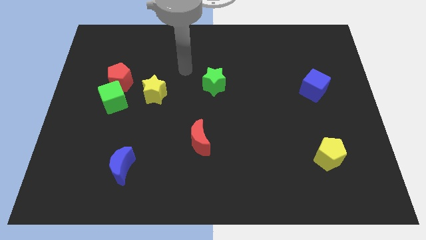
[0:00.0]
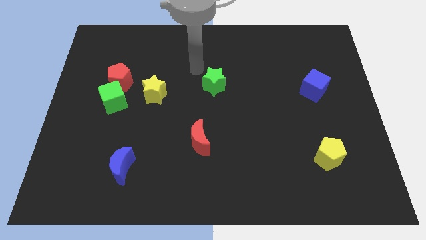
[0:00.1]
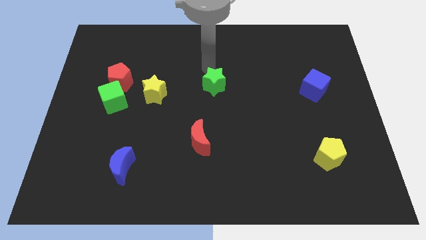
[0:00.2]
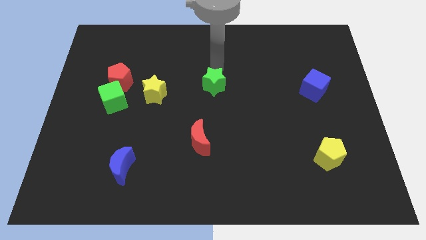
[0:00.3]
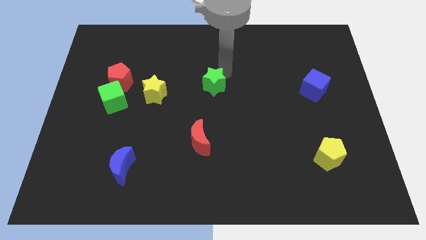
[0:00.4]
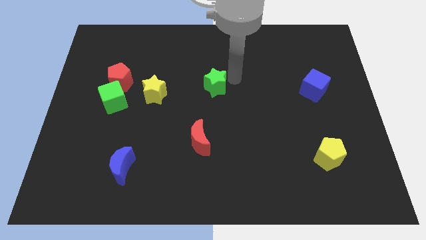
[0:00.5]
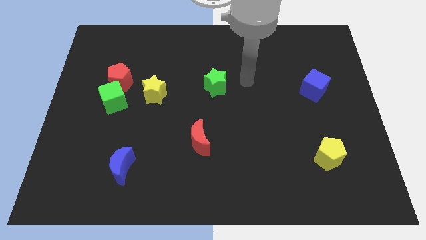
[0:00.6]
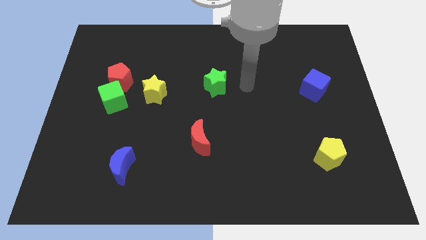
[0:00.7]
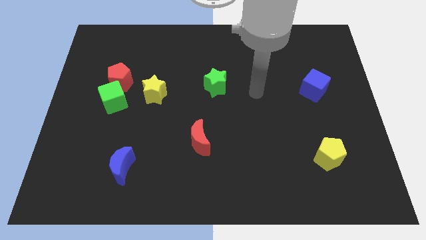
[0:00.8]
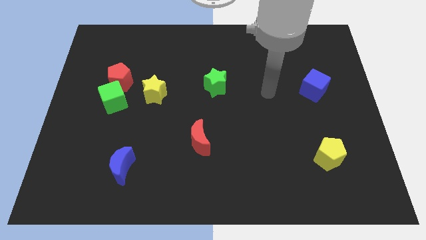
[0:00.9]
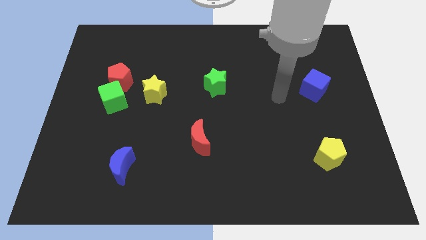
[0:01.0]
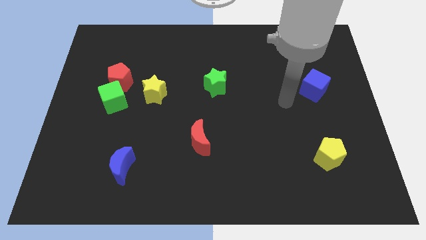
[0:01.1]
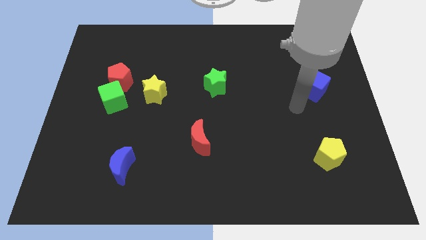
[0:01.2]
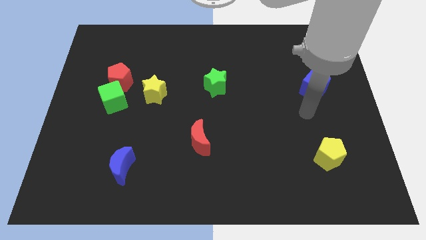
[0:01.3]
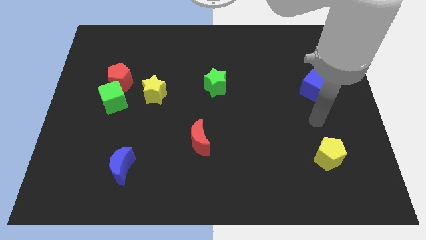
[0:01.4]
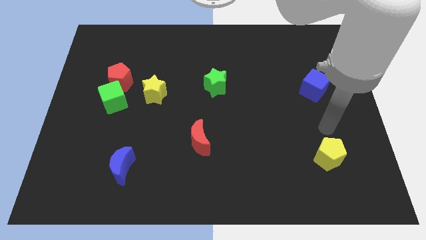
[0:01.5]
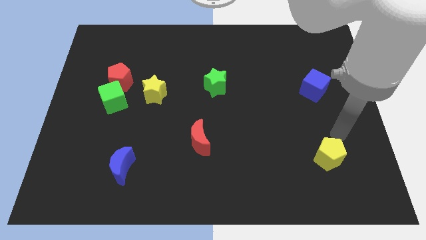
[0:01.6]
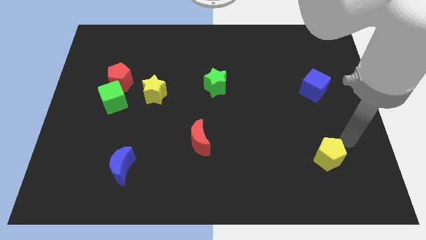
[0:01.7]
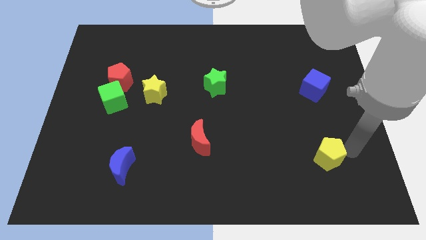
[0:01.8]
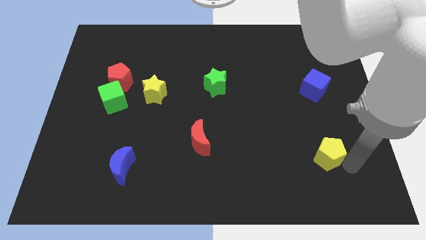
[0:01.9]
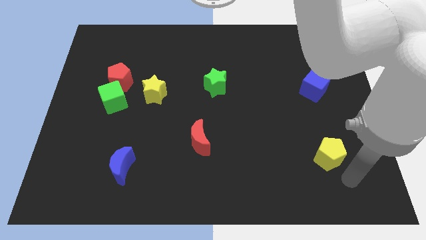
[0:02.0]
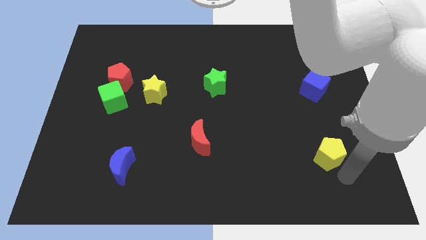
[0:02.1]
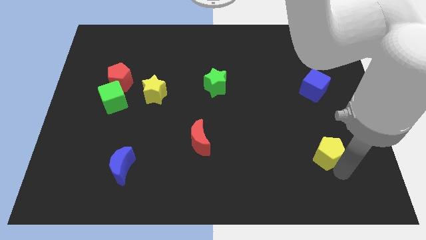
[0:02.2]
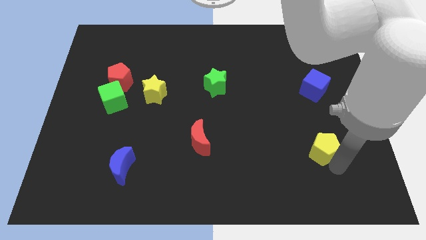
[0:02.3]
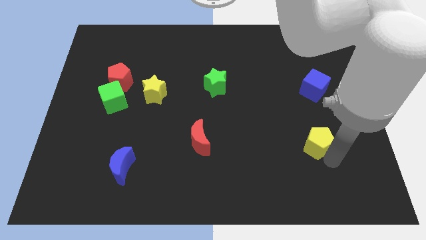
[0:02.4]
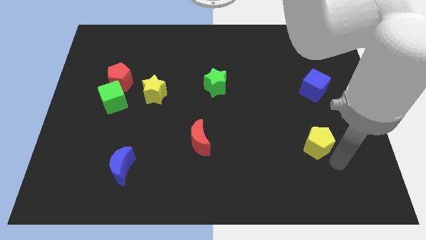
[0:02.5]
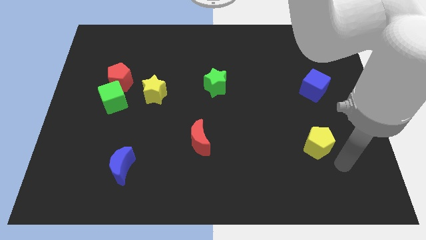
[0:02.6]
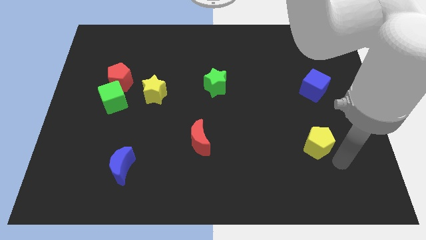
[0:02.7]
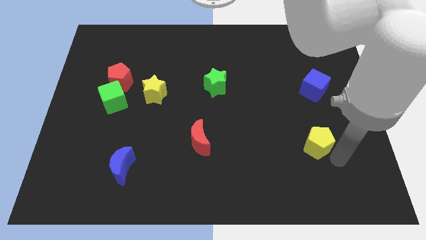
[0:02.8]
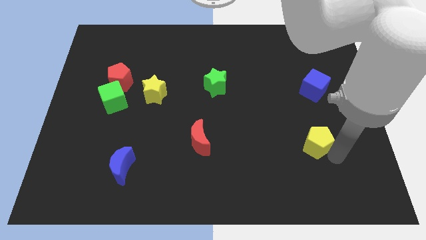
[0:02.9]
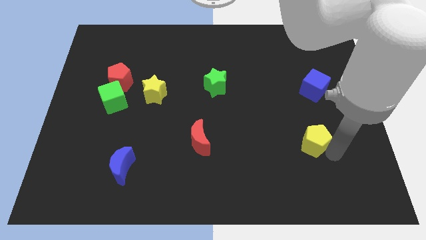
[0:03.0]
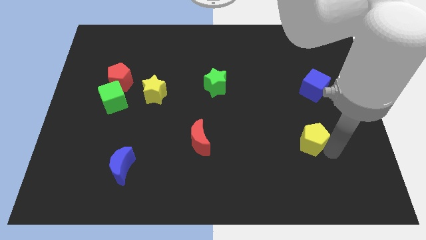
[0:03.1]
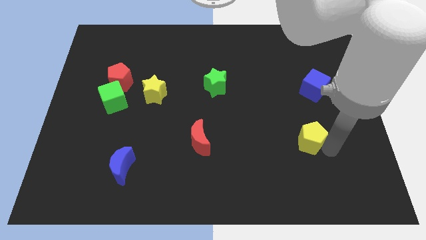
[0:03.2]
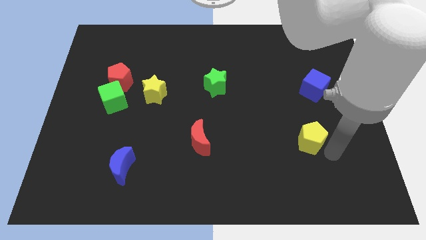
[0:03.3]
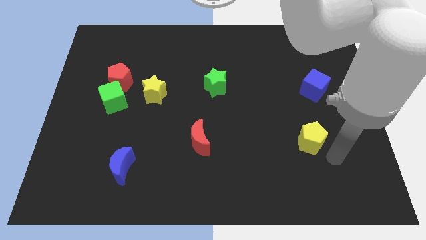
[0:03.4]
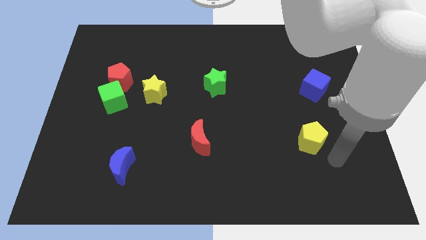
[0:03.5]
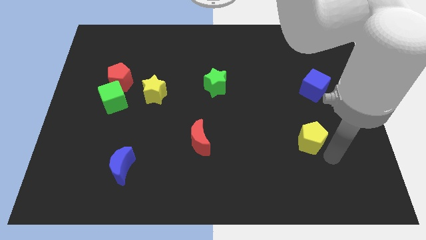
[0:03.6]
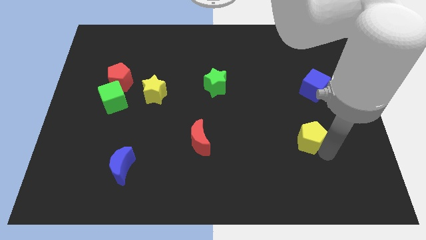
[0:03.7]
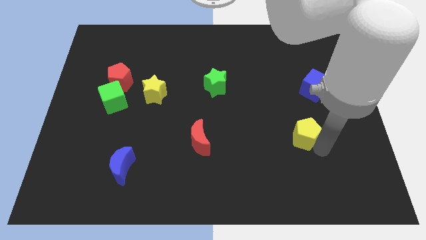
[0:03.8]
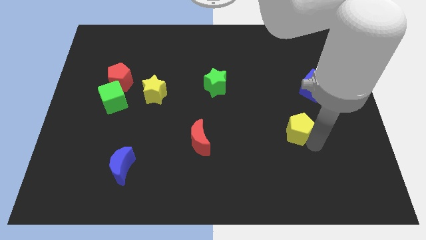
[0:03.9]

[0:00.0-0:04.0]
move the yellow pentagon up and to the left somewhat

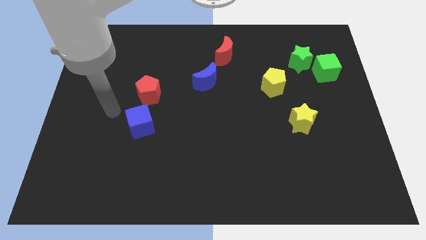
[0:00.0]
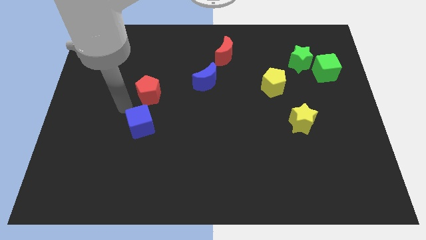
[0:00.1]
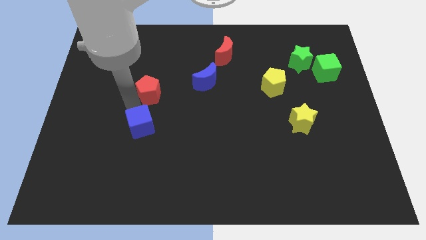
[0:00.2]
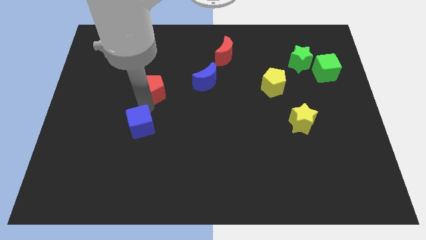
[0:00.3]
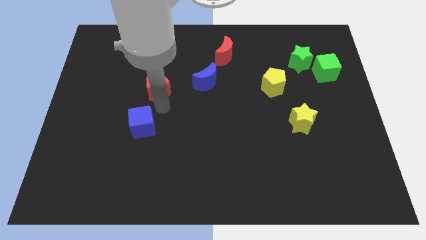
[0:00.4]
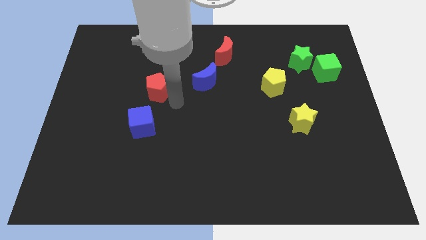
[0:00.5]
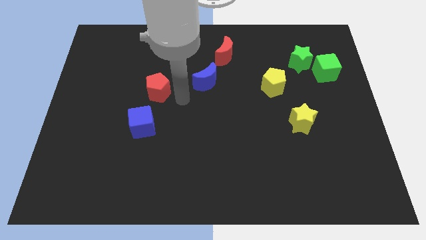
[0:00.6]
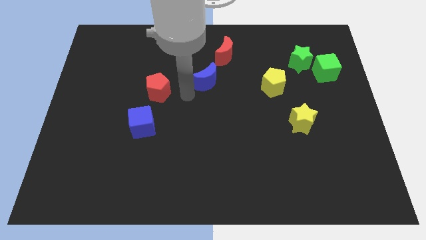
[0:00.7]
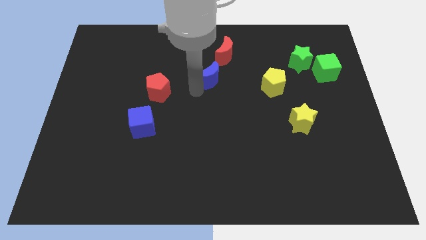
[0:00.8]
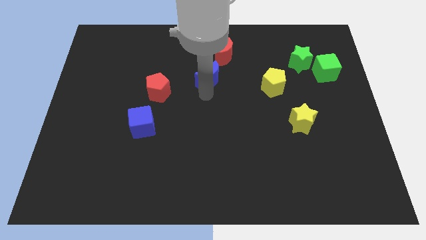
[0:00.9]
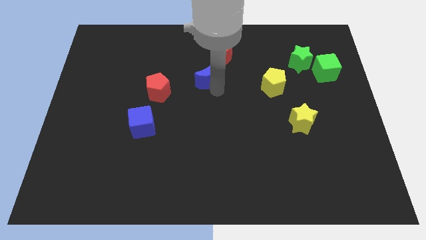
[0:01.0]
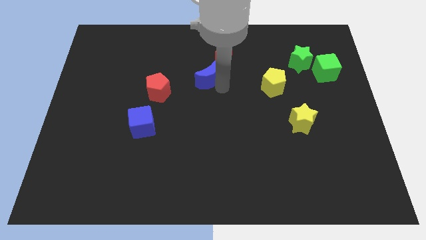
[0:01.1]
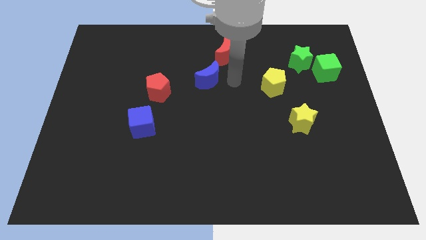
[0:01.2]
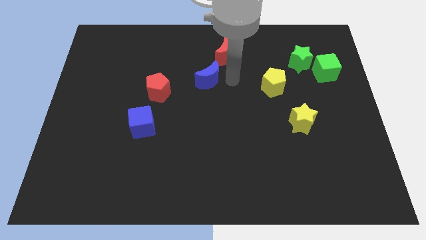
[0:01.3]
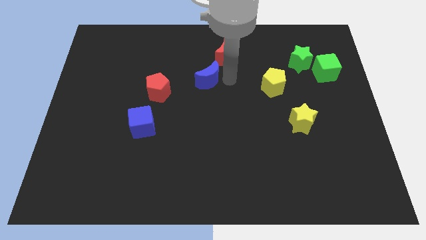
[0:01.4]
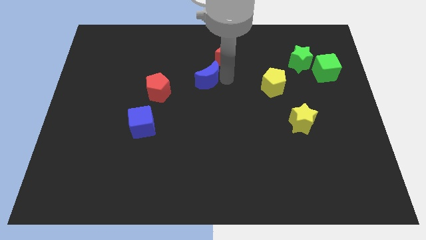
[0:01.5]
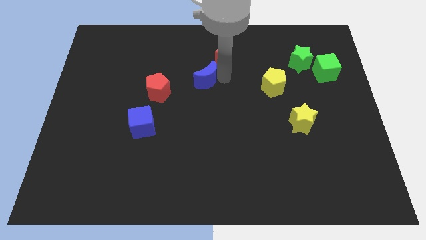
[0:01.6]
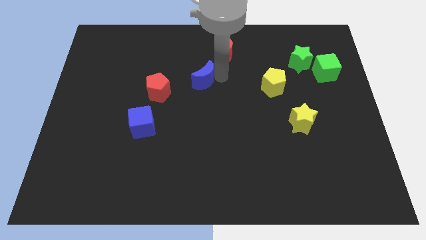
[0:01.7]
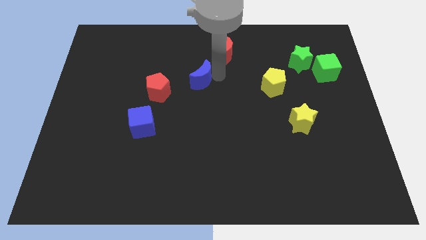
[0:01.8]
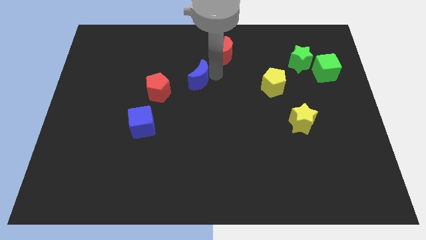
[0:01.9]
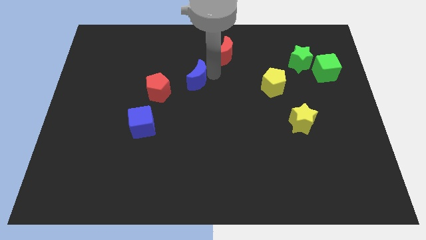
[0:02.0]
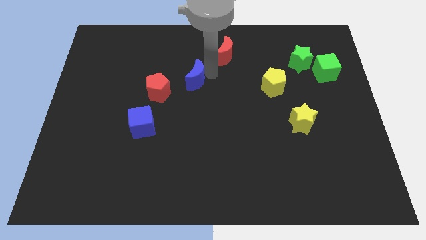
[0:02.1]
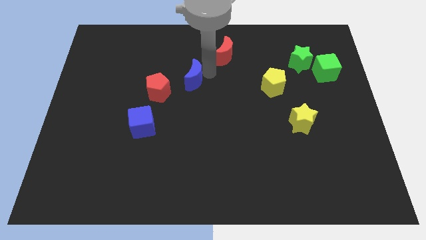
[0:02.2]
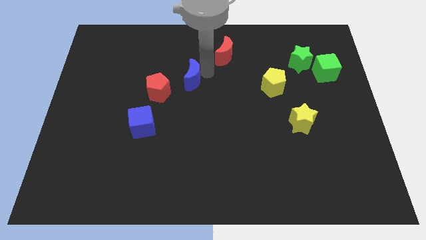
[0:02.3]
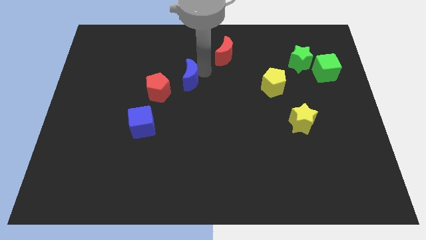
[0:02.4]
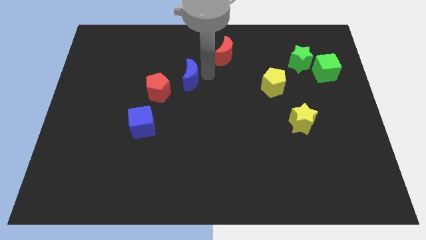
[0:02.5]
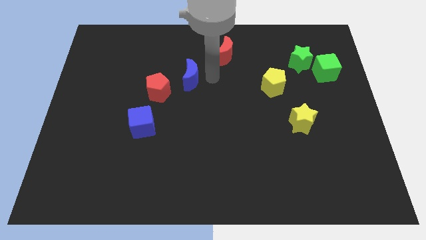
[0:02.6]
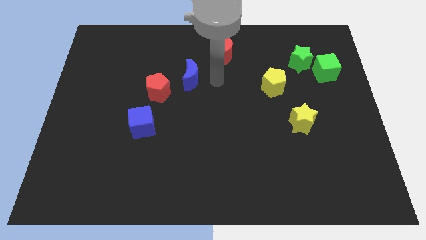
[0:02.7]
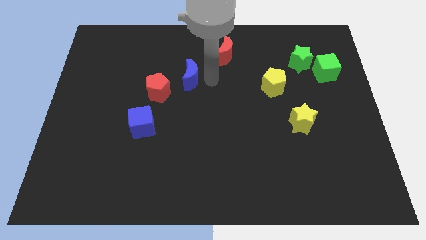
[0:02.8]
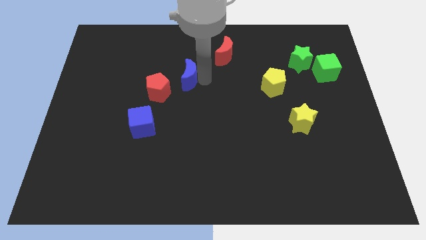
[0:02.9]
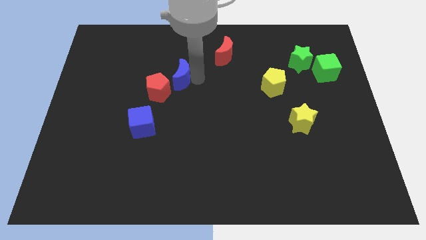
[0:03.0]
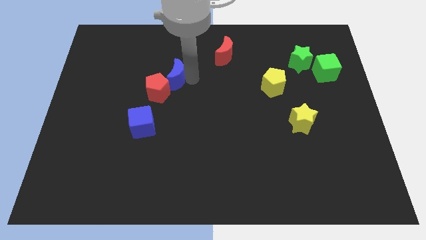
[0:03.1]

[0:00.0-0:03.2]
move the blue moon to the left somewhat

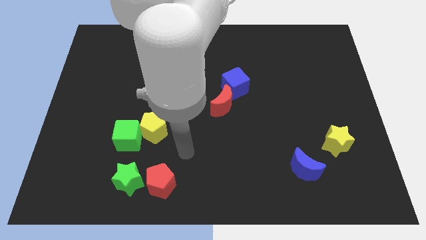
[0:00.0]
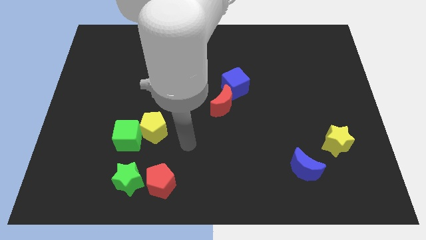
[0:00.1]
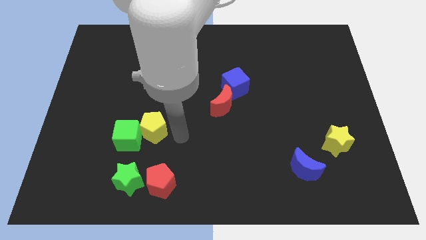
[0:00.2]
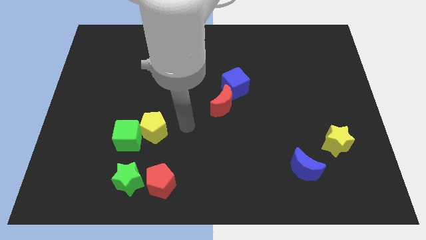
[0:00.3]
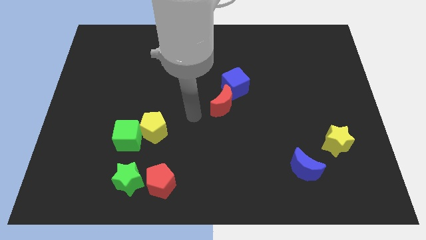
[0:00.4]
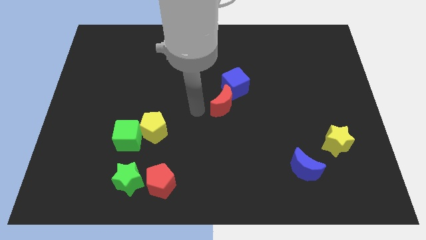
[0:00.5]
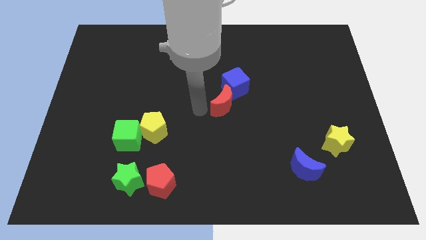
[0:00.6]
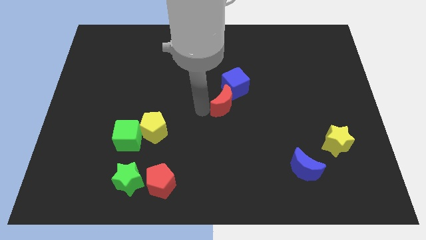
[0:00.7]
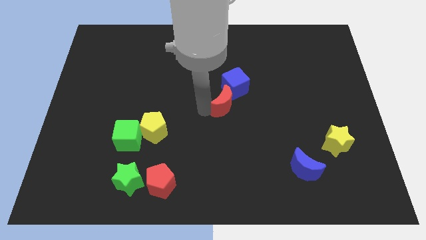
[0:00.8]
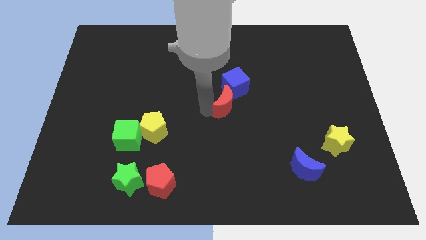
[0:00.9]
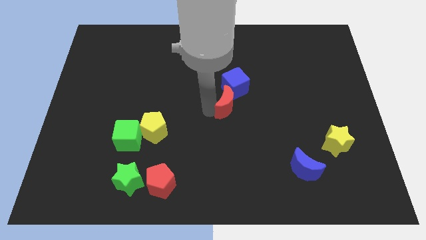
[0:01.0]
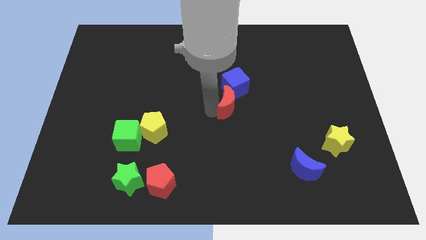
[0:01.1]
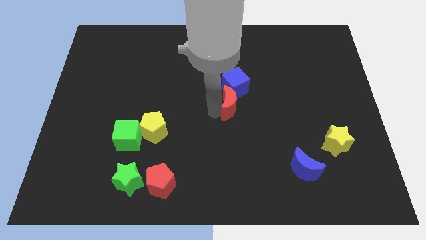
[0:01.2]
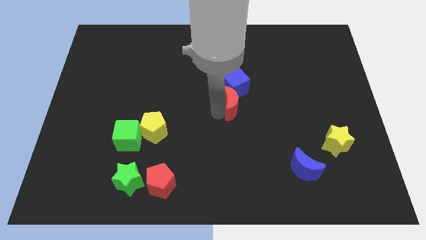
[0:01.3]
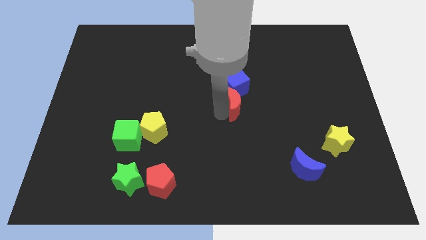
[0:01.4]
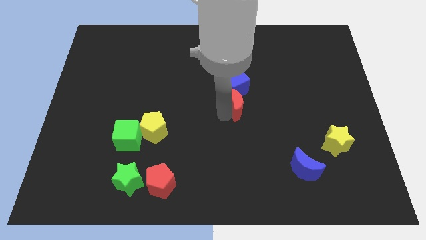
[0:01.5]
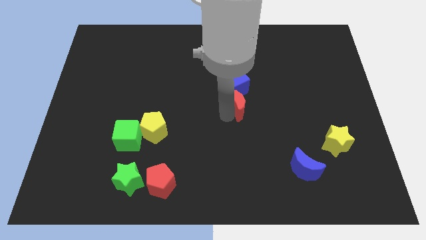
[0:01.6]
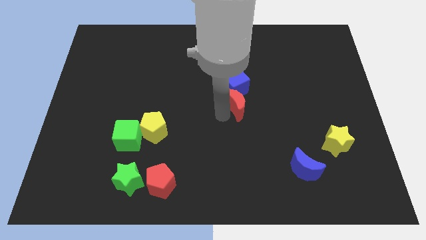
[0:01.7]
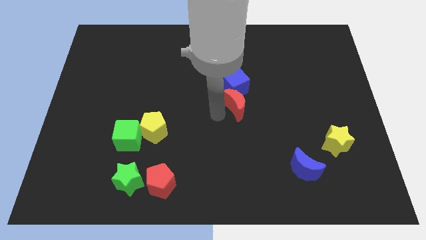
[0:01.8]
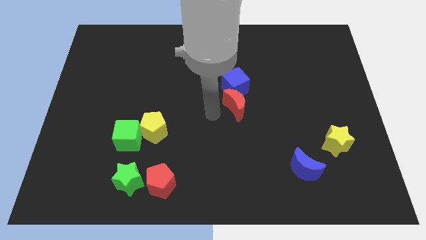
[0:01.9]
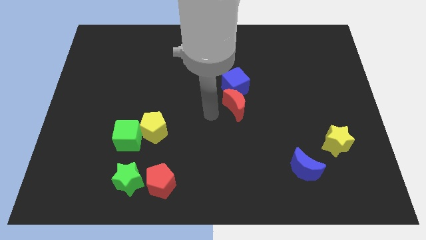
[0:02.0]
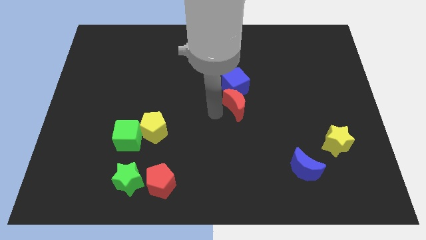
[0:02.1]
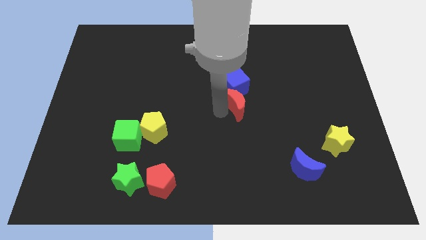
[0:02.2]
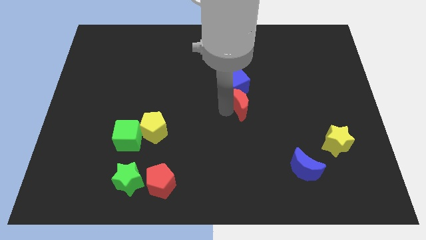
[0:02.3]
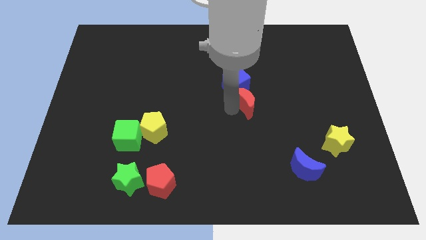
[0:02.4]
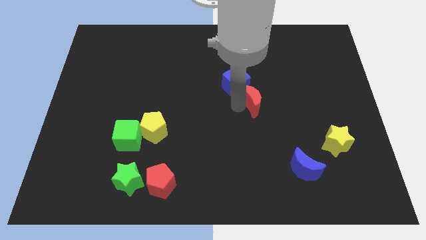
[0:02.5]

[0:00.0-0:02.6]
push the red moon a little bit right
